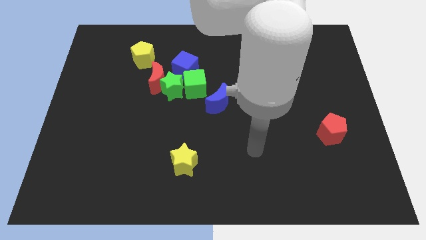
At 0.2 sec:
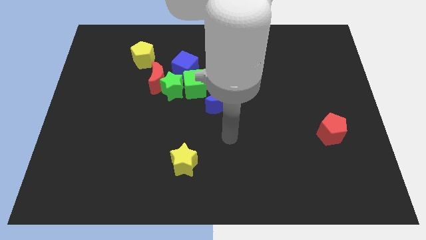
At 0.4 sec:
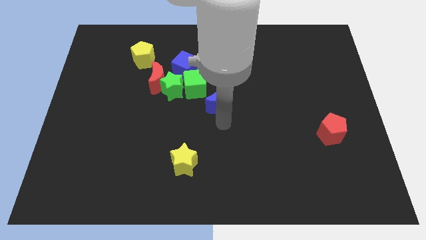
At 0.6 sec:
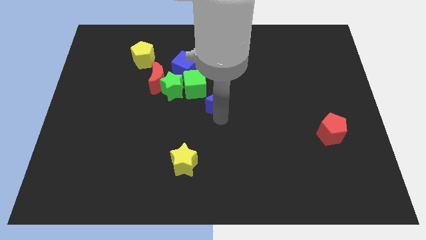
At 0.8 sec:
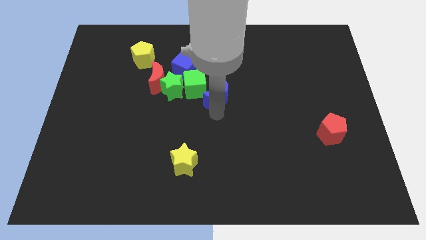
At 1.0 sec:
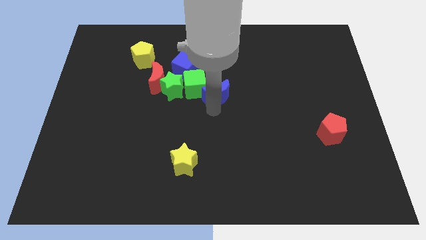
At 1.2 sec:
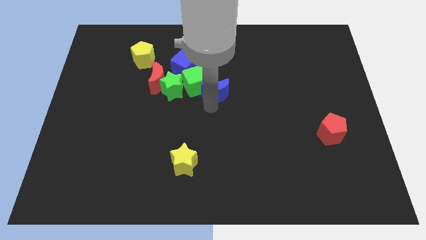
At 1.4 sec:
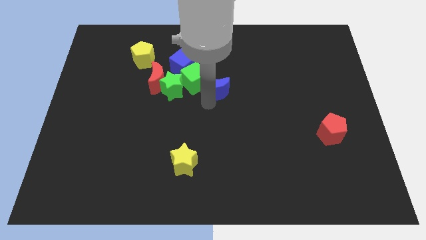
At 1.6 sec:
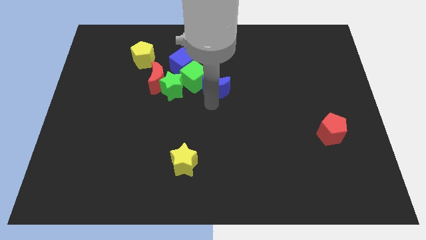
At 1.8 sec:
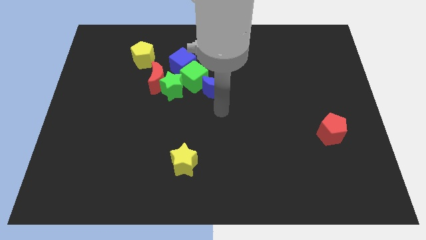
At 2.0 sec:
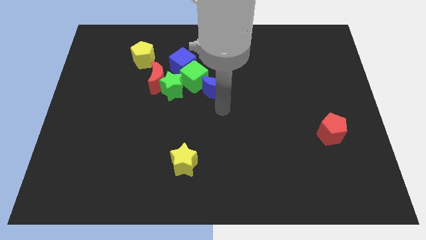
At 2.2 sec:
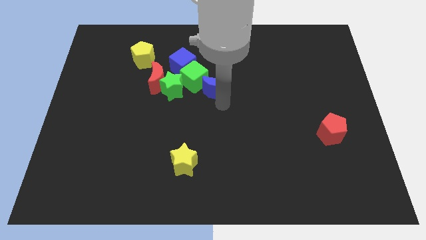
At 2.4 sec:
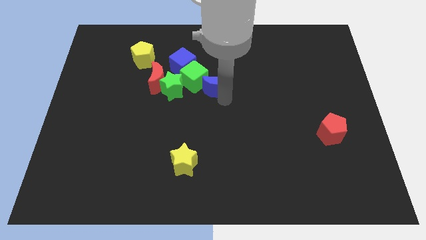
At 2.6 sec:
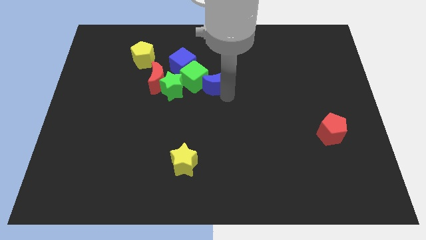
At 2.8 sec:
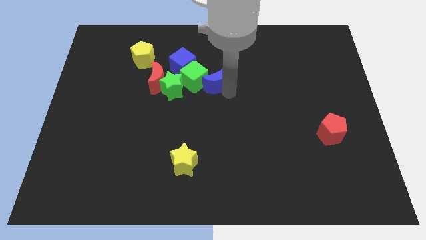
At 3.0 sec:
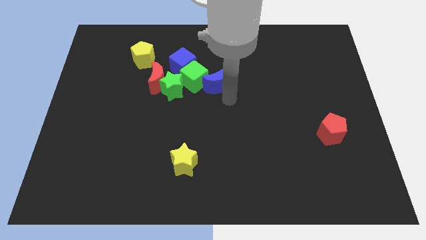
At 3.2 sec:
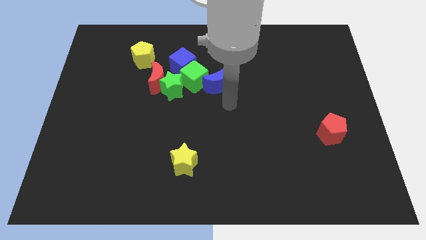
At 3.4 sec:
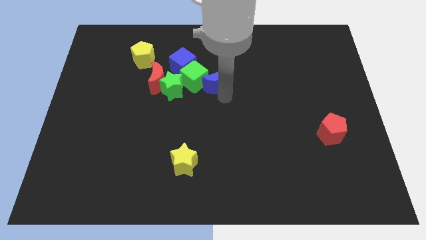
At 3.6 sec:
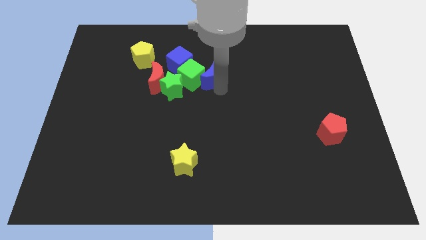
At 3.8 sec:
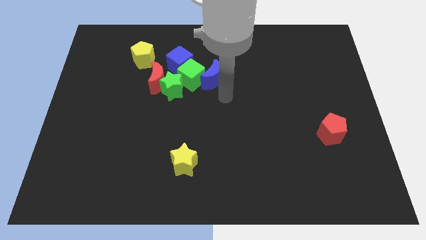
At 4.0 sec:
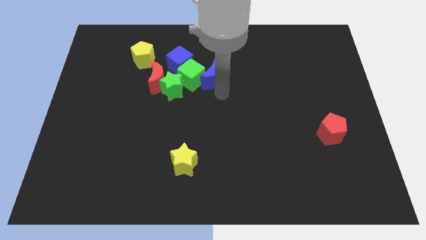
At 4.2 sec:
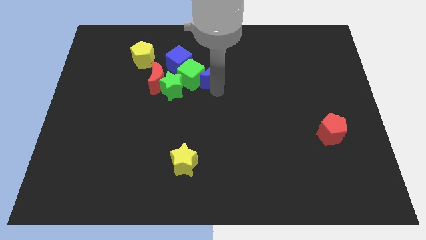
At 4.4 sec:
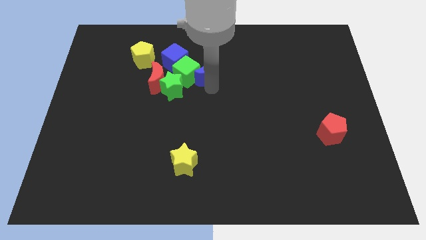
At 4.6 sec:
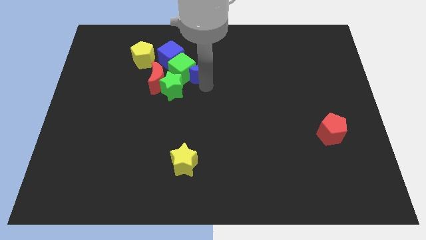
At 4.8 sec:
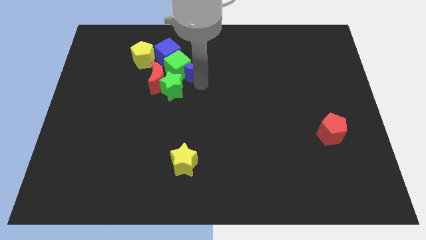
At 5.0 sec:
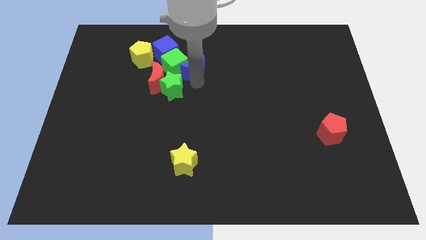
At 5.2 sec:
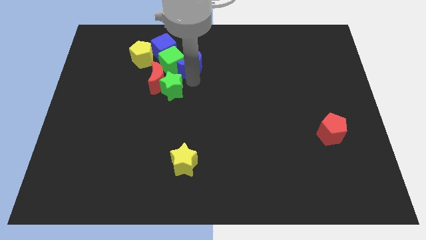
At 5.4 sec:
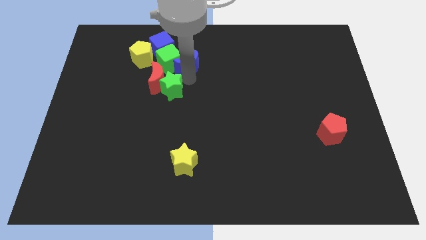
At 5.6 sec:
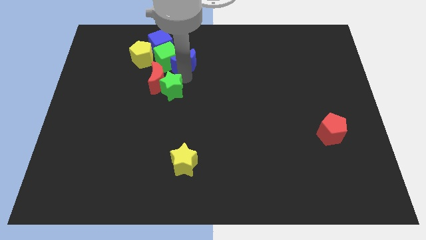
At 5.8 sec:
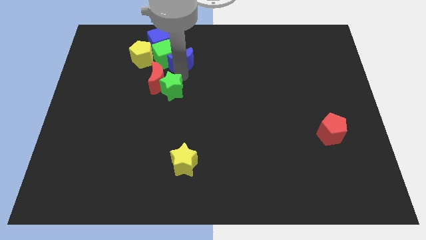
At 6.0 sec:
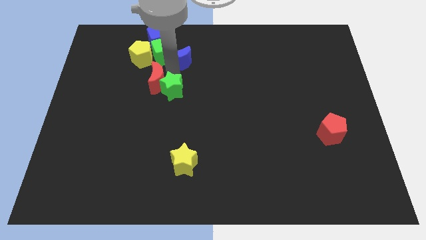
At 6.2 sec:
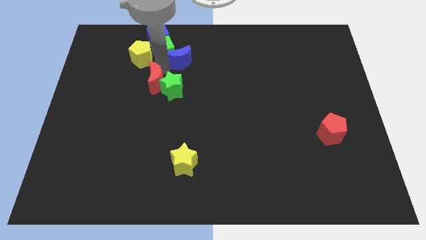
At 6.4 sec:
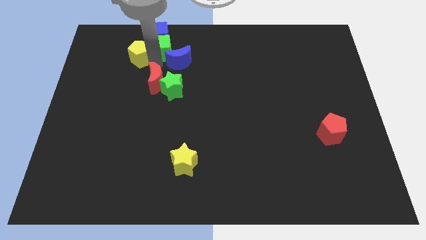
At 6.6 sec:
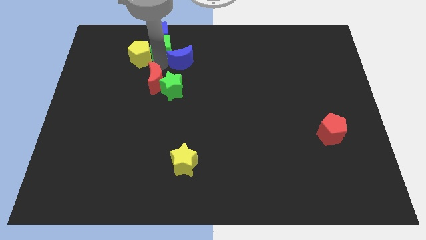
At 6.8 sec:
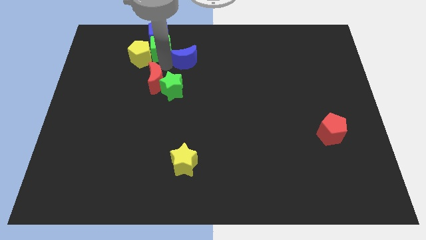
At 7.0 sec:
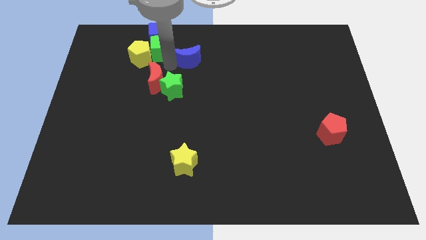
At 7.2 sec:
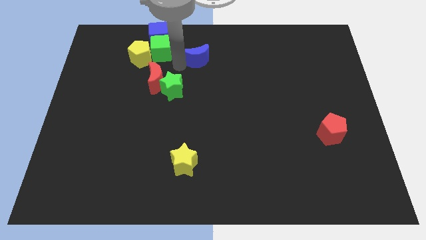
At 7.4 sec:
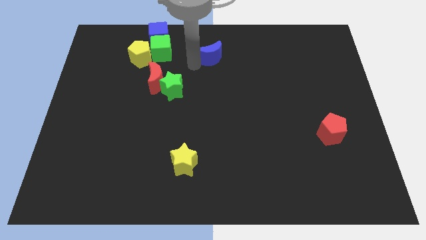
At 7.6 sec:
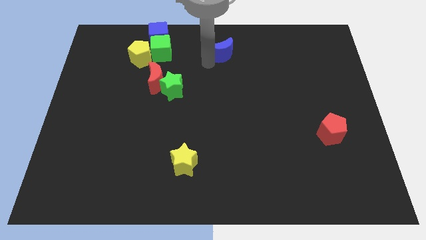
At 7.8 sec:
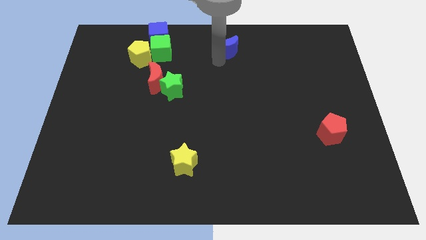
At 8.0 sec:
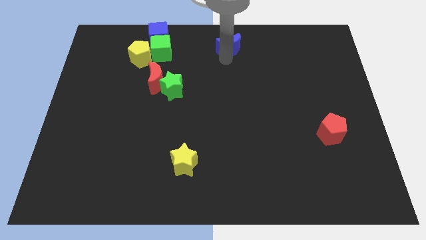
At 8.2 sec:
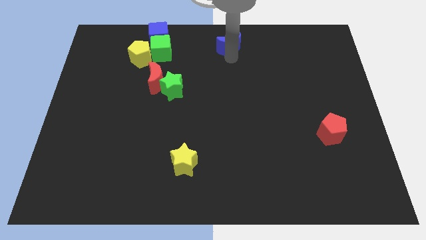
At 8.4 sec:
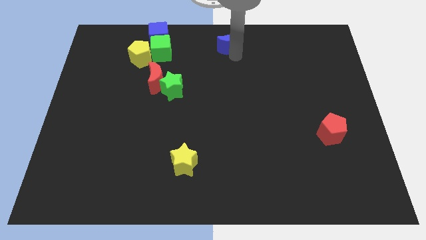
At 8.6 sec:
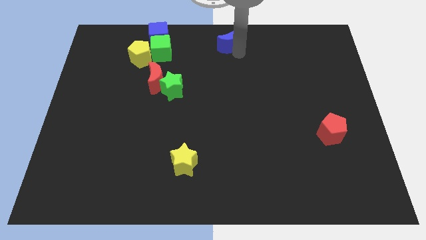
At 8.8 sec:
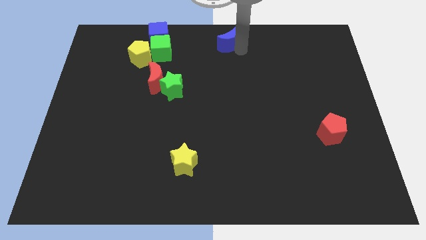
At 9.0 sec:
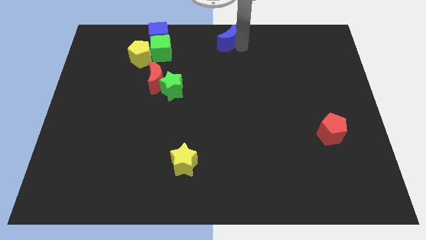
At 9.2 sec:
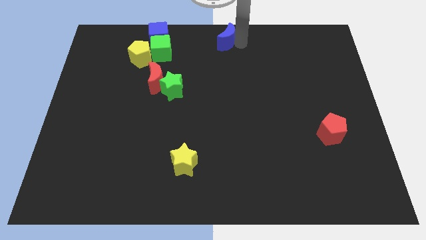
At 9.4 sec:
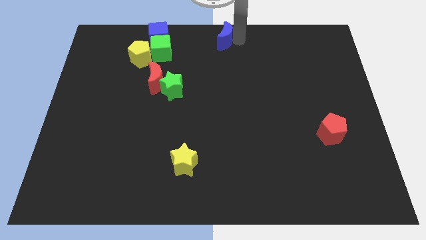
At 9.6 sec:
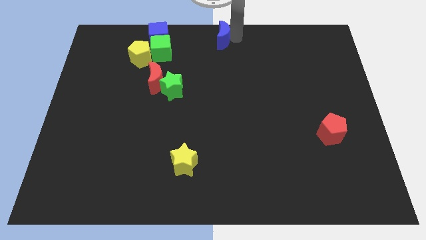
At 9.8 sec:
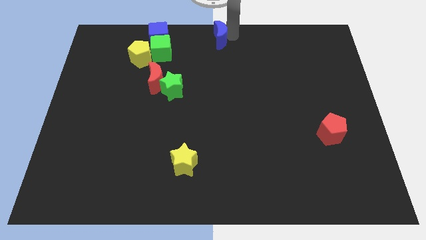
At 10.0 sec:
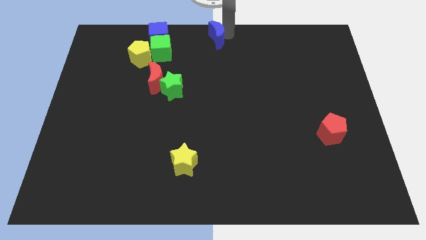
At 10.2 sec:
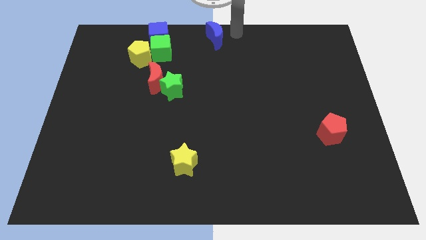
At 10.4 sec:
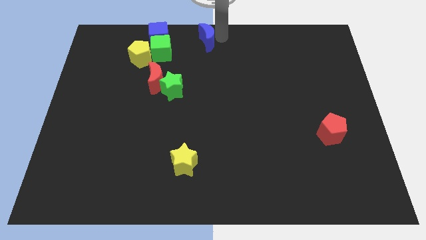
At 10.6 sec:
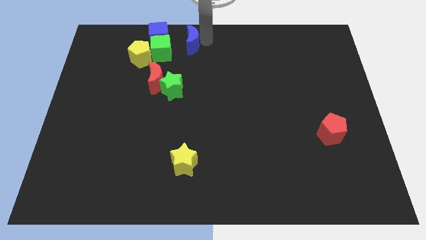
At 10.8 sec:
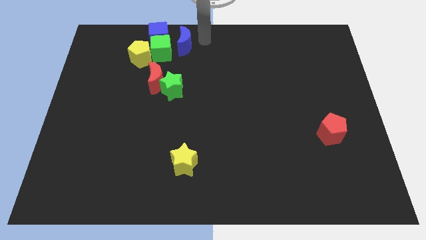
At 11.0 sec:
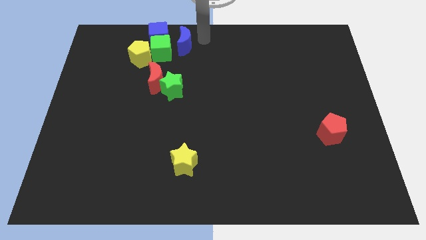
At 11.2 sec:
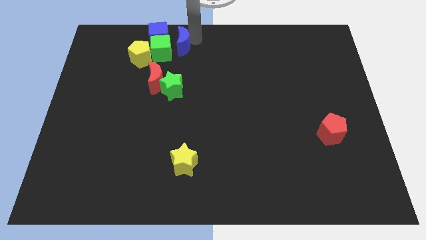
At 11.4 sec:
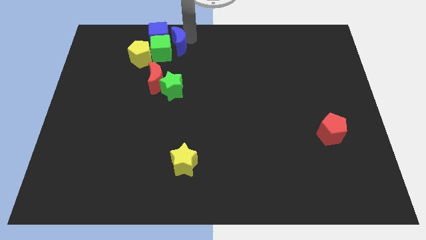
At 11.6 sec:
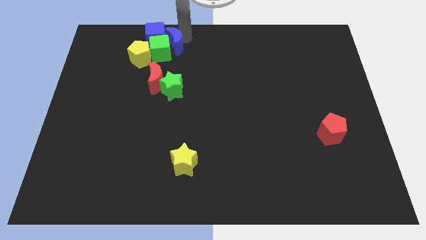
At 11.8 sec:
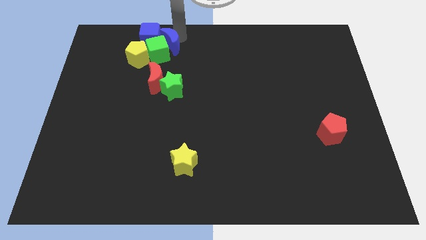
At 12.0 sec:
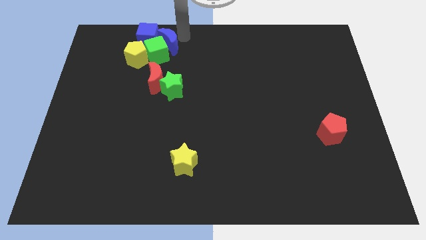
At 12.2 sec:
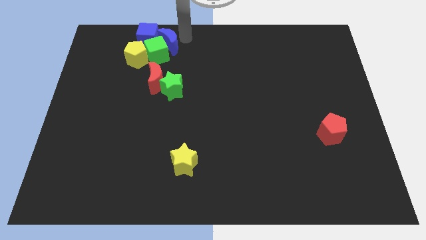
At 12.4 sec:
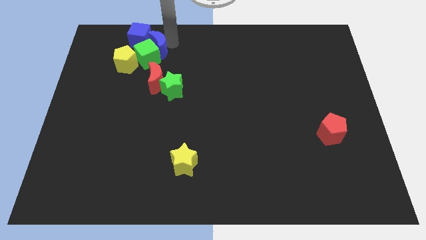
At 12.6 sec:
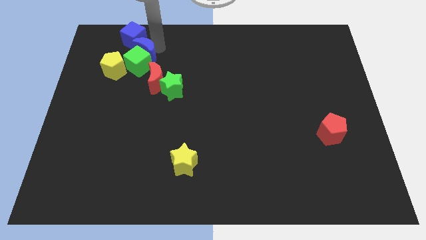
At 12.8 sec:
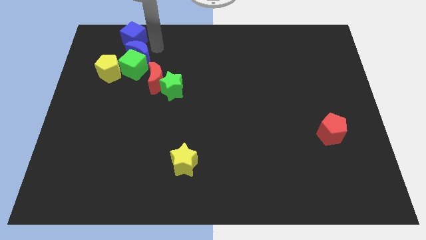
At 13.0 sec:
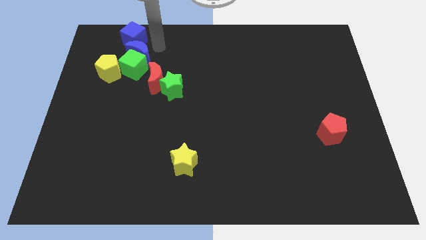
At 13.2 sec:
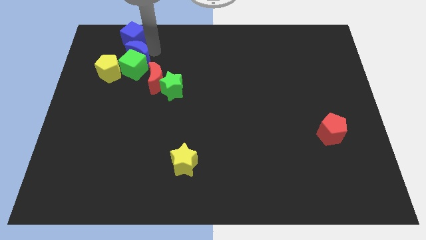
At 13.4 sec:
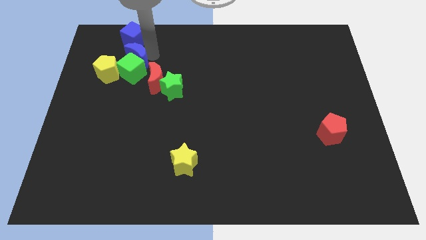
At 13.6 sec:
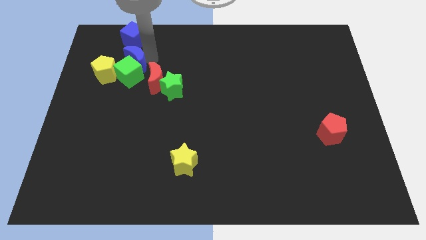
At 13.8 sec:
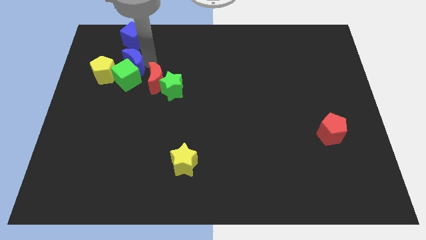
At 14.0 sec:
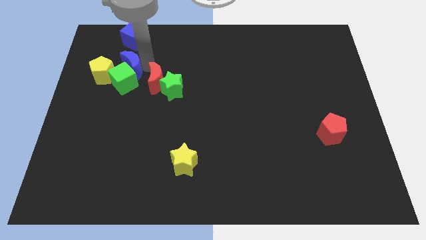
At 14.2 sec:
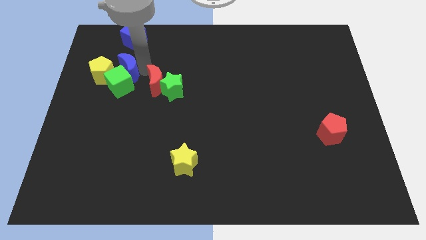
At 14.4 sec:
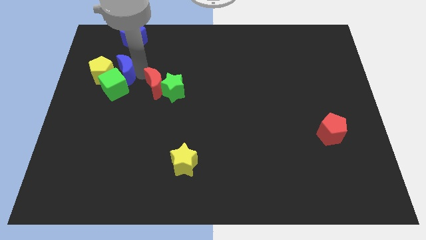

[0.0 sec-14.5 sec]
slide the blue moon to the yellow pentagon
